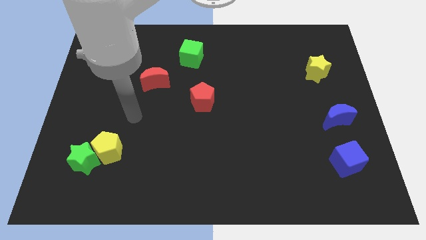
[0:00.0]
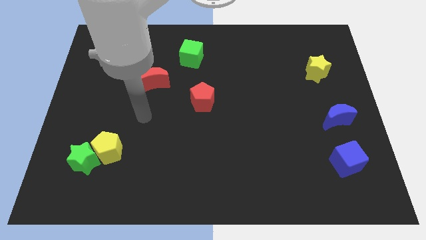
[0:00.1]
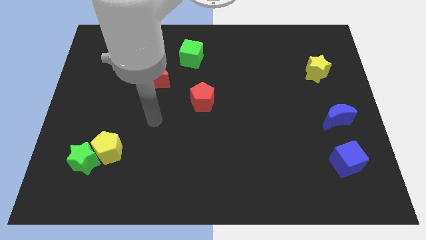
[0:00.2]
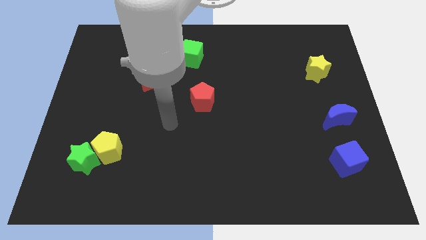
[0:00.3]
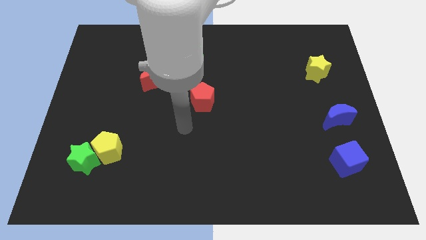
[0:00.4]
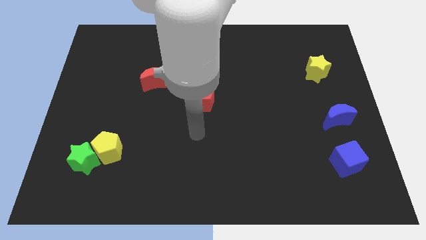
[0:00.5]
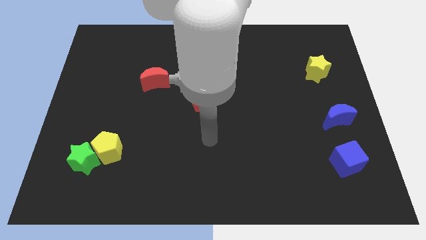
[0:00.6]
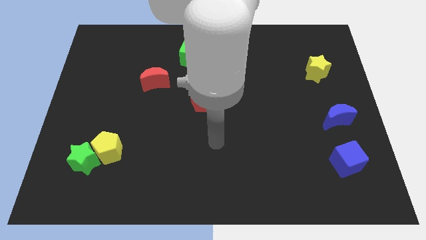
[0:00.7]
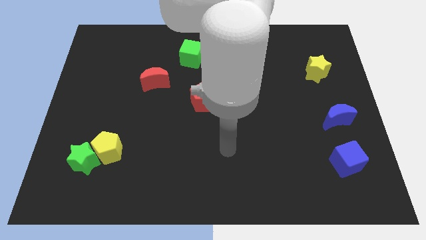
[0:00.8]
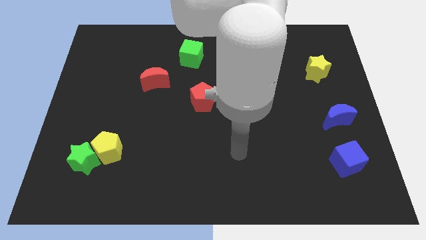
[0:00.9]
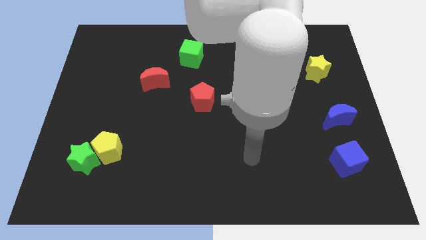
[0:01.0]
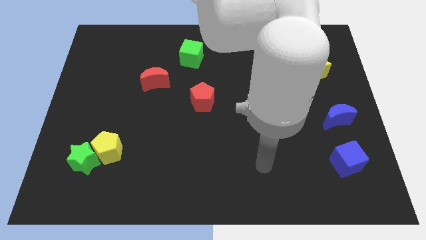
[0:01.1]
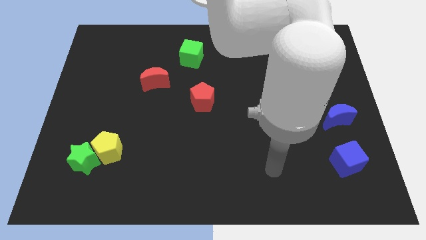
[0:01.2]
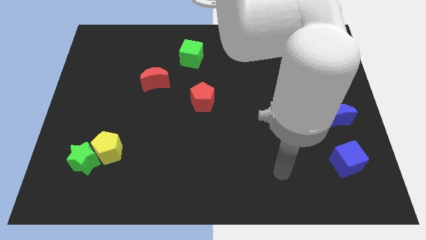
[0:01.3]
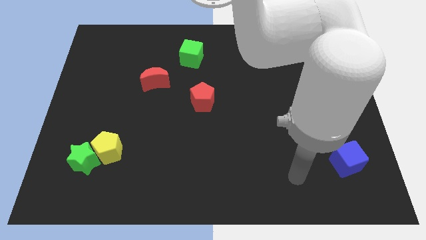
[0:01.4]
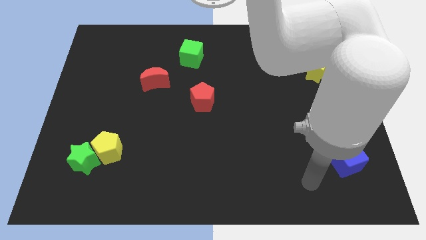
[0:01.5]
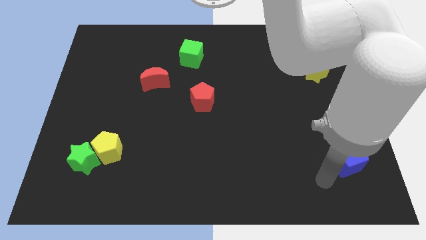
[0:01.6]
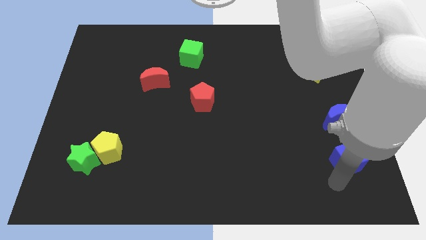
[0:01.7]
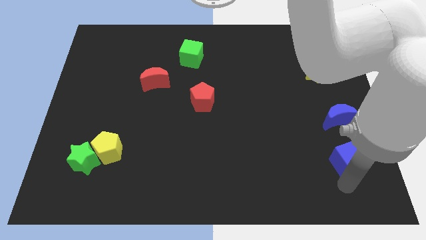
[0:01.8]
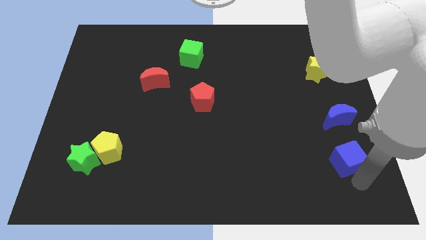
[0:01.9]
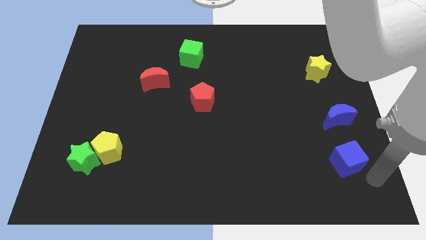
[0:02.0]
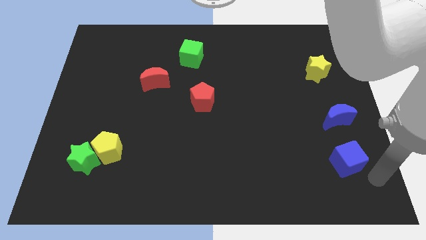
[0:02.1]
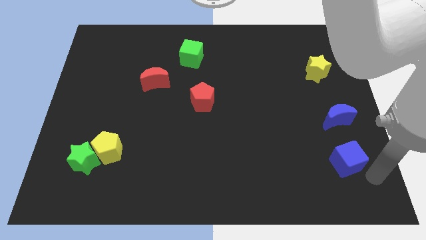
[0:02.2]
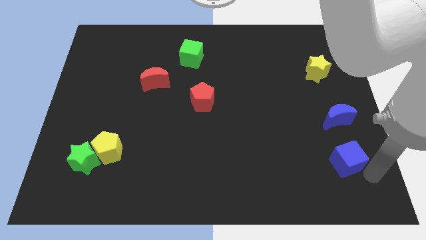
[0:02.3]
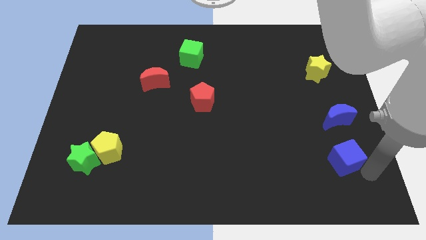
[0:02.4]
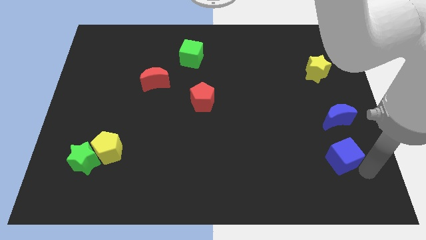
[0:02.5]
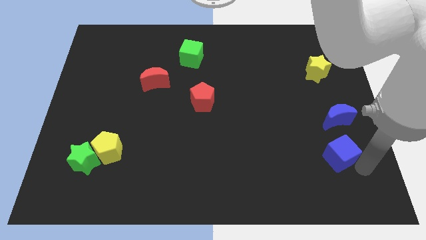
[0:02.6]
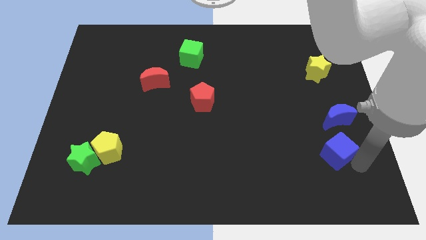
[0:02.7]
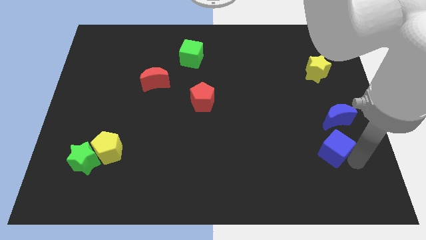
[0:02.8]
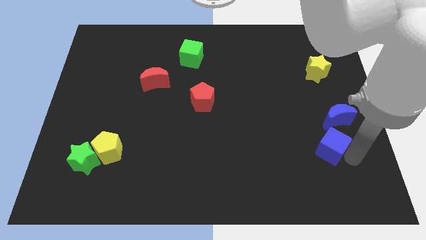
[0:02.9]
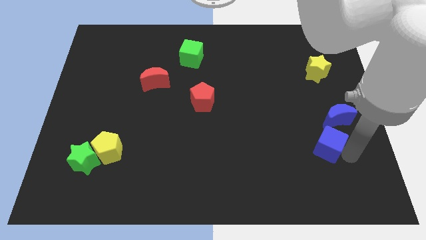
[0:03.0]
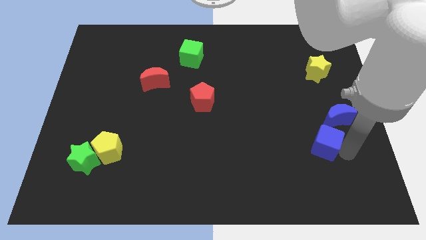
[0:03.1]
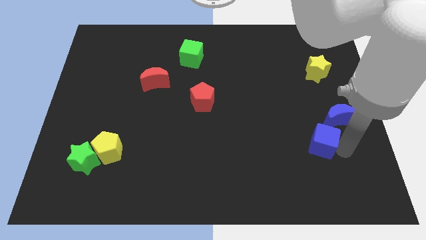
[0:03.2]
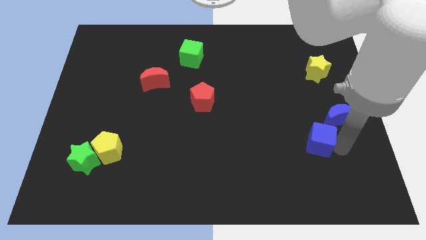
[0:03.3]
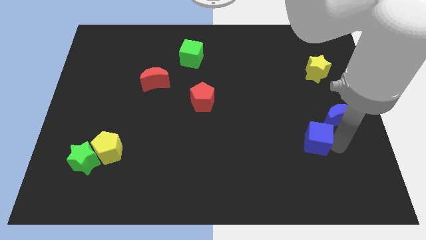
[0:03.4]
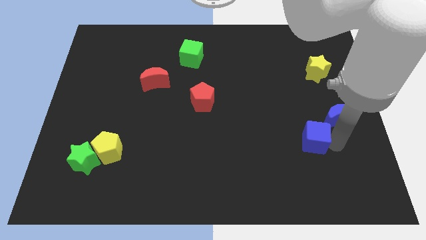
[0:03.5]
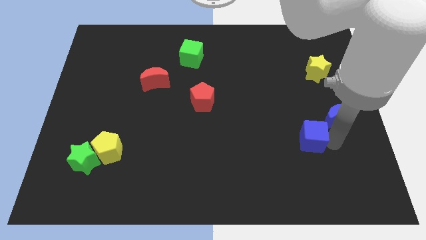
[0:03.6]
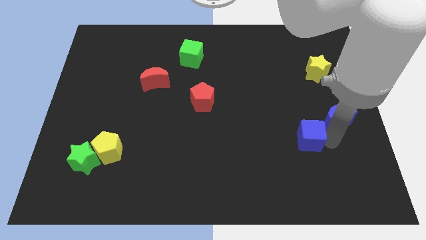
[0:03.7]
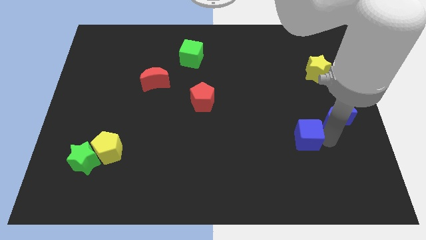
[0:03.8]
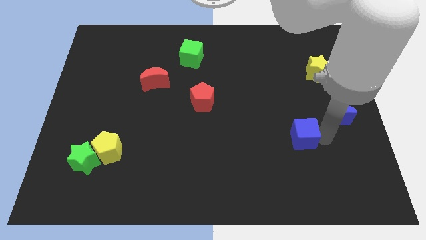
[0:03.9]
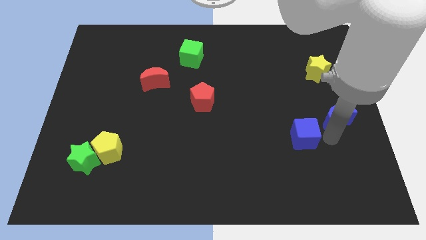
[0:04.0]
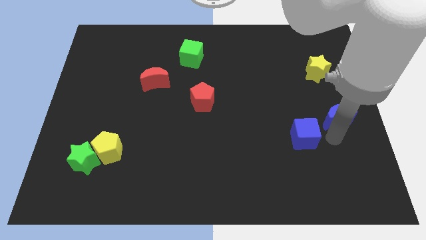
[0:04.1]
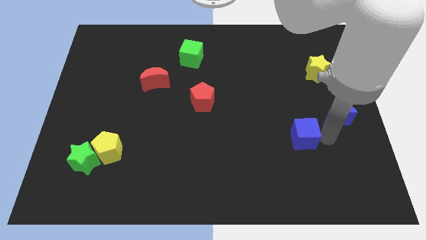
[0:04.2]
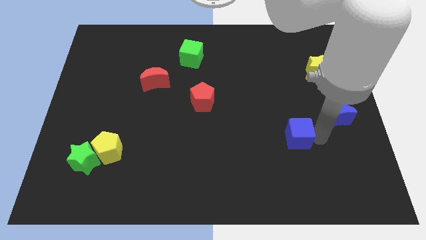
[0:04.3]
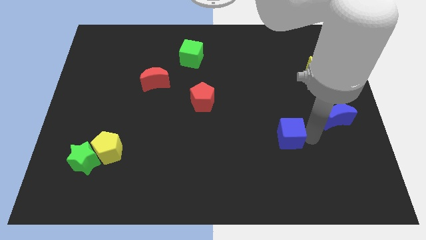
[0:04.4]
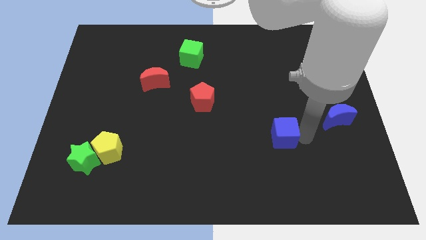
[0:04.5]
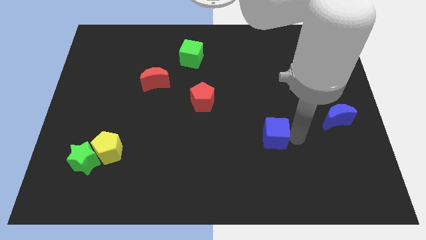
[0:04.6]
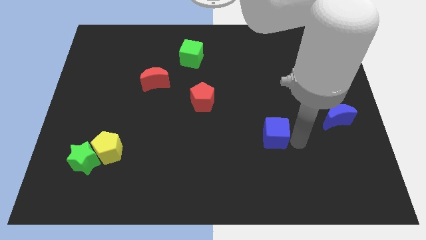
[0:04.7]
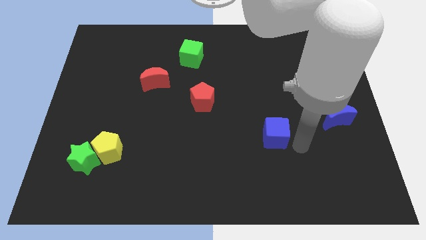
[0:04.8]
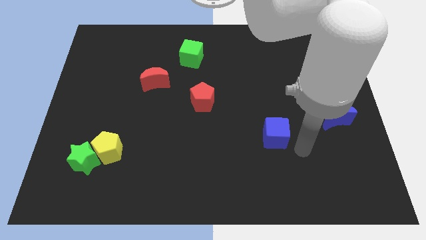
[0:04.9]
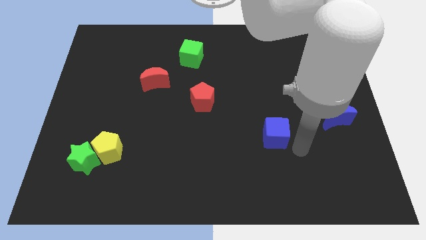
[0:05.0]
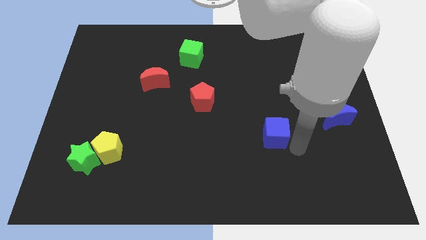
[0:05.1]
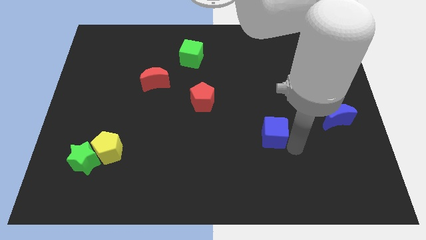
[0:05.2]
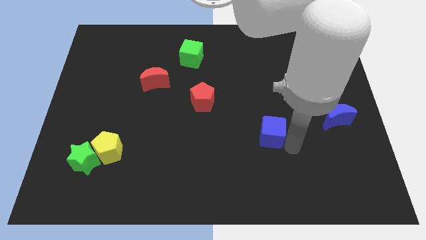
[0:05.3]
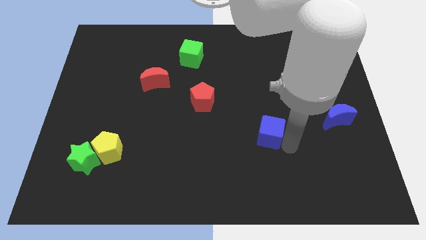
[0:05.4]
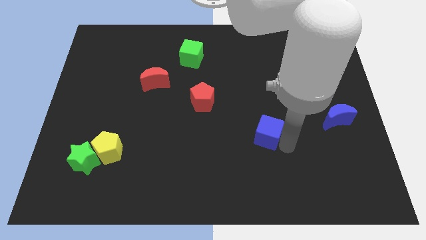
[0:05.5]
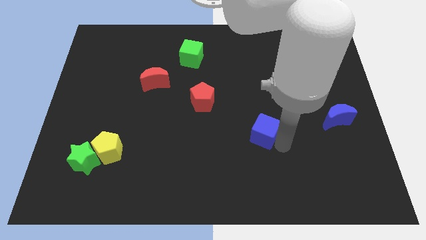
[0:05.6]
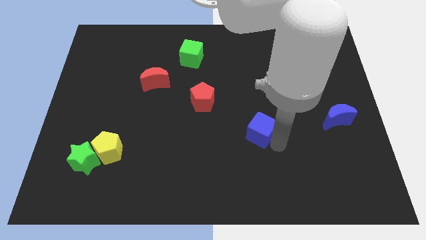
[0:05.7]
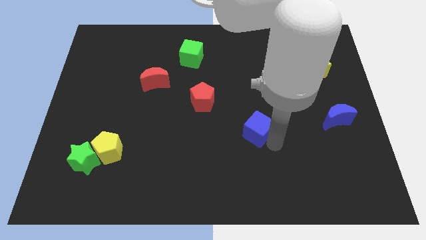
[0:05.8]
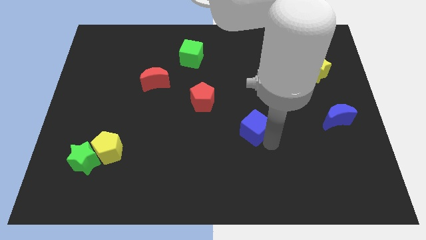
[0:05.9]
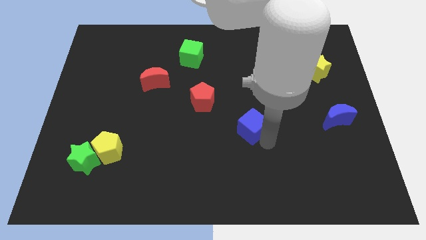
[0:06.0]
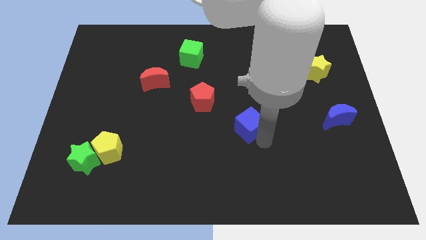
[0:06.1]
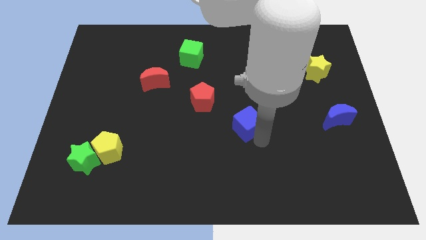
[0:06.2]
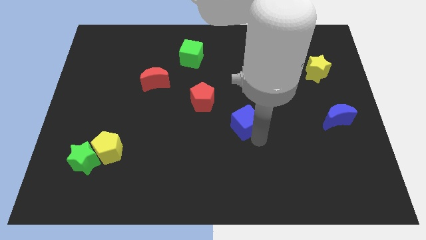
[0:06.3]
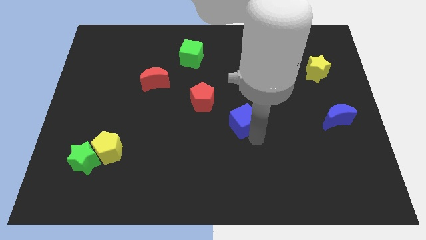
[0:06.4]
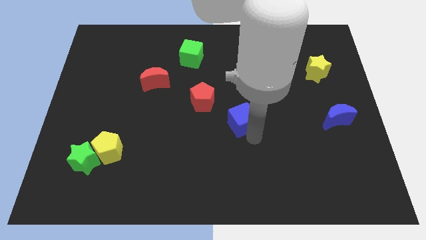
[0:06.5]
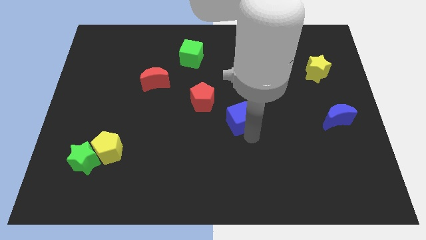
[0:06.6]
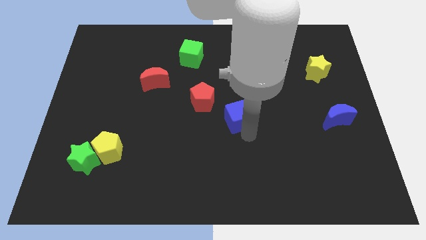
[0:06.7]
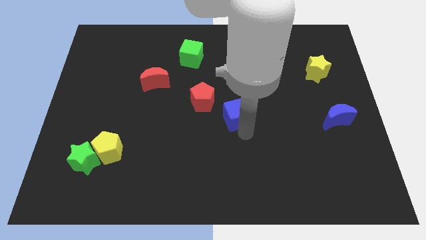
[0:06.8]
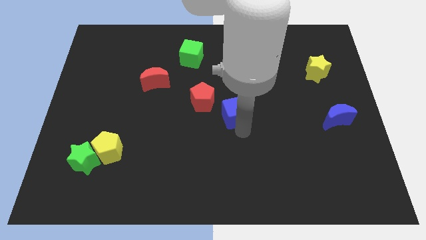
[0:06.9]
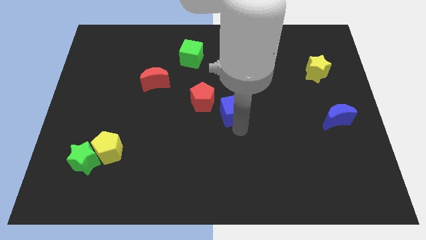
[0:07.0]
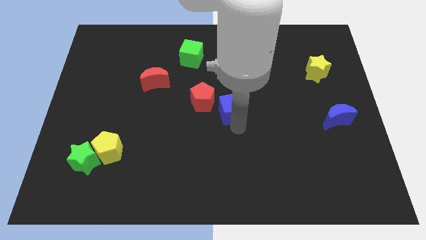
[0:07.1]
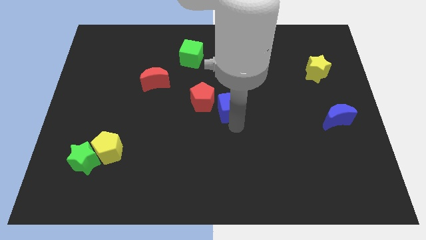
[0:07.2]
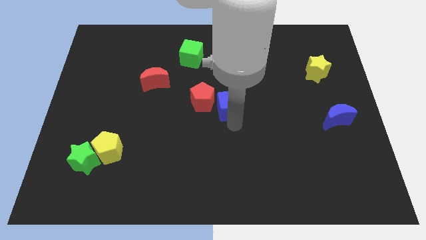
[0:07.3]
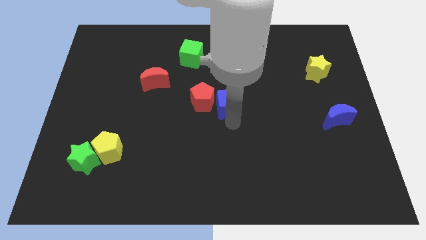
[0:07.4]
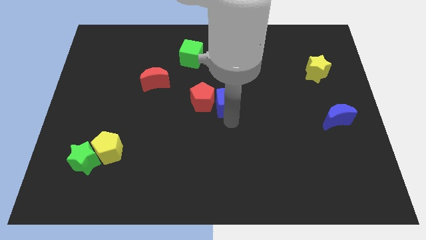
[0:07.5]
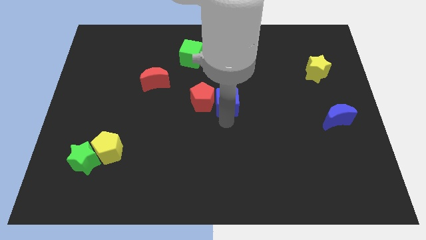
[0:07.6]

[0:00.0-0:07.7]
move the blue cube to the top right side of the red pentagon
